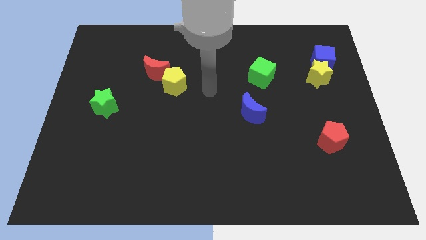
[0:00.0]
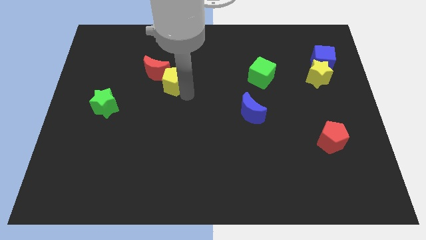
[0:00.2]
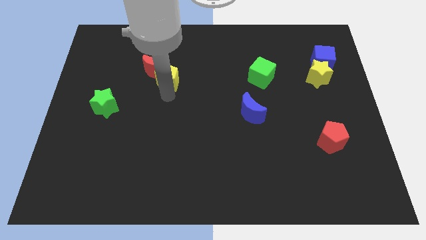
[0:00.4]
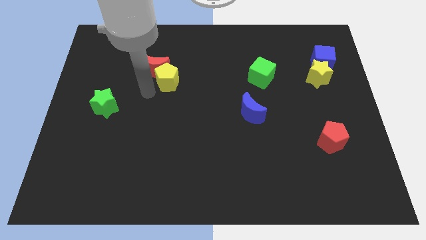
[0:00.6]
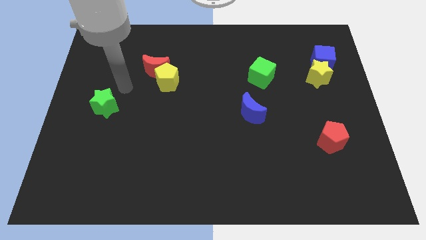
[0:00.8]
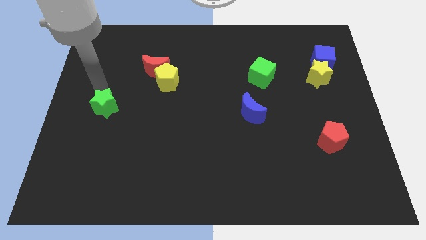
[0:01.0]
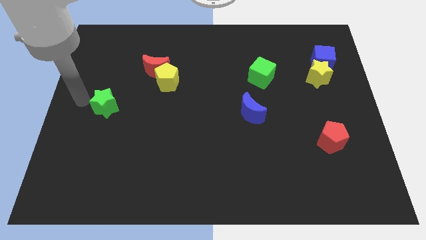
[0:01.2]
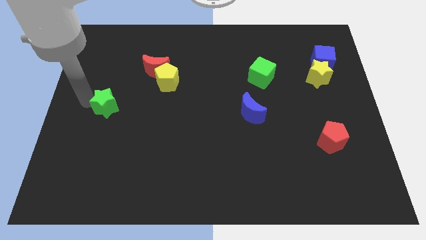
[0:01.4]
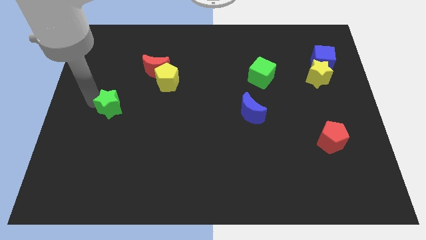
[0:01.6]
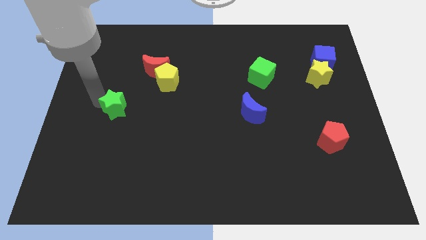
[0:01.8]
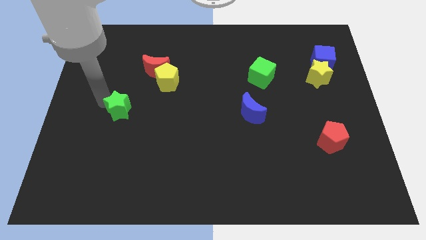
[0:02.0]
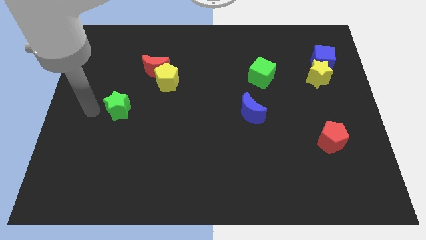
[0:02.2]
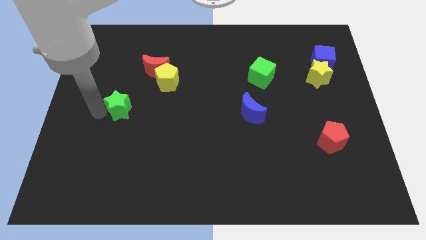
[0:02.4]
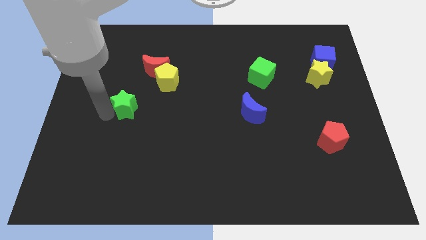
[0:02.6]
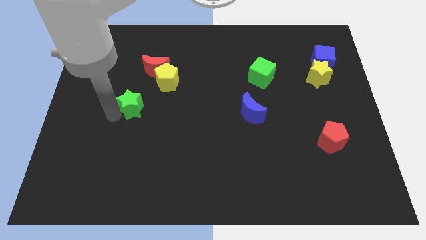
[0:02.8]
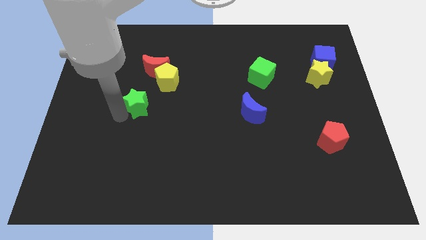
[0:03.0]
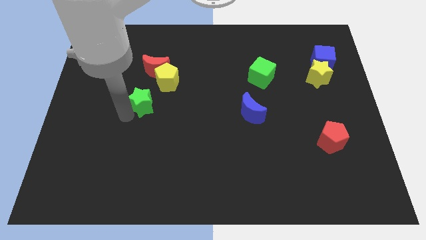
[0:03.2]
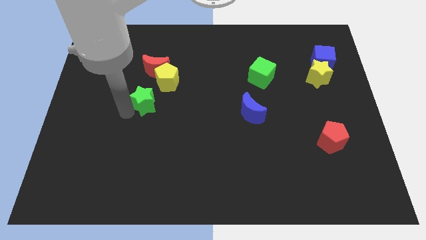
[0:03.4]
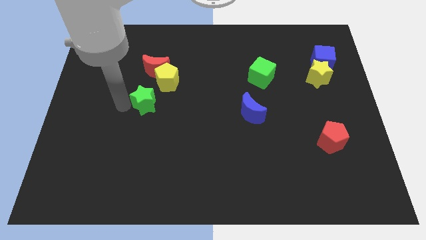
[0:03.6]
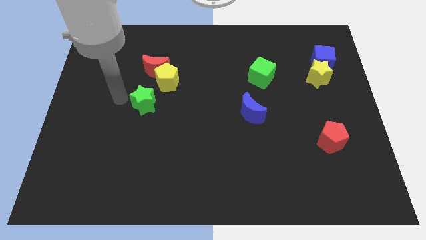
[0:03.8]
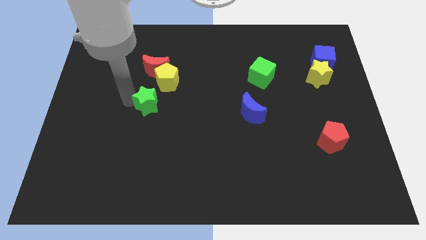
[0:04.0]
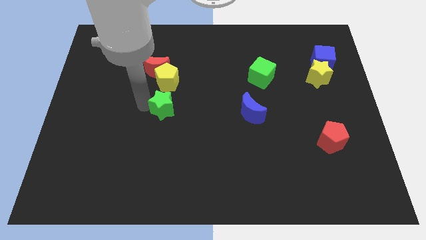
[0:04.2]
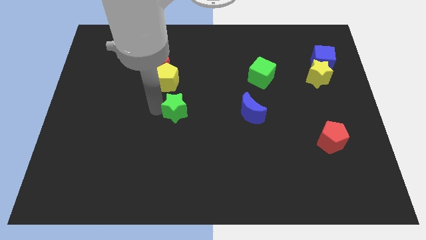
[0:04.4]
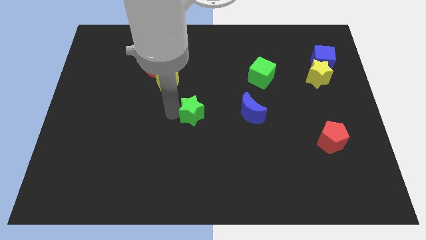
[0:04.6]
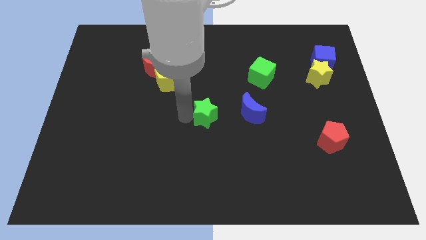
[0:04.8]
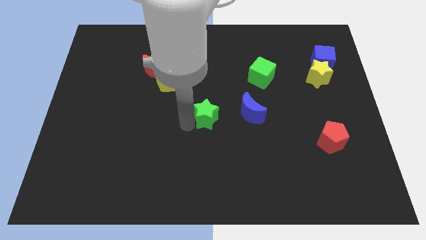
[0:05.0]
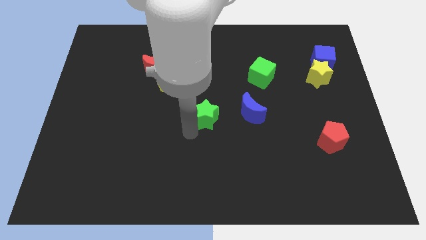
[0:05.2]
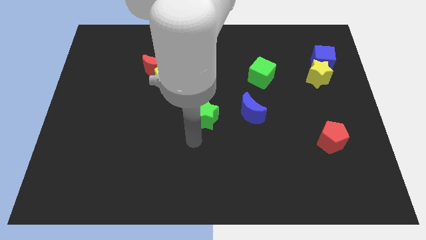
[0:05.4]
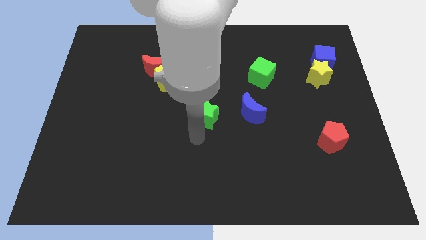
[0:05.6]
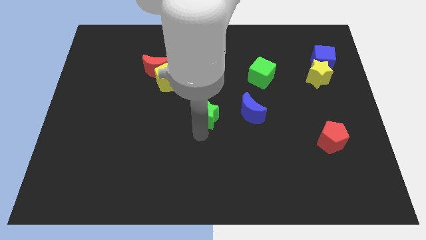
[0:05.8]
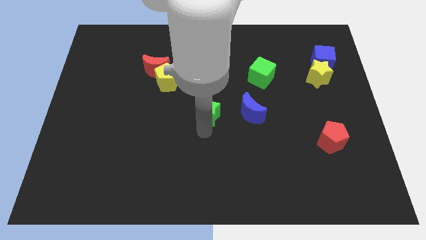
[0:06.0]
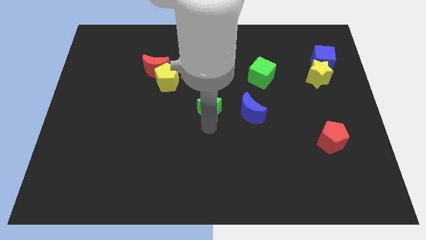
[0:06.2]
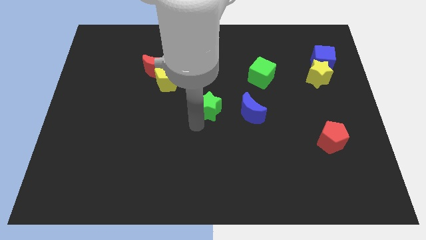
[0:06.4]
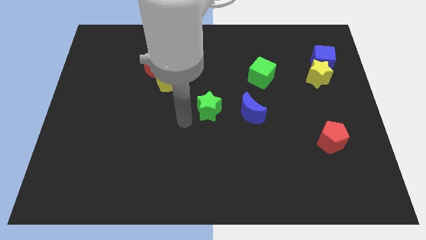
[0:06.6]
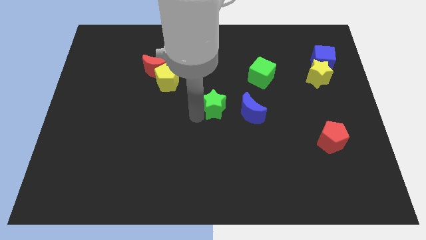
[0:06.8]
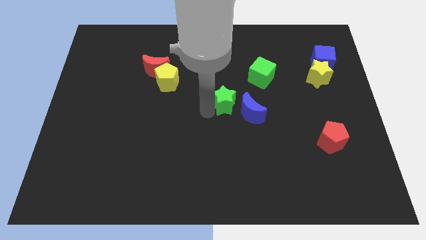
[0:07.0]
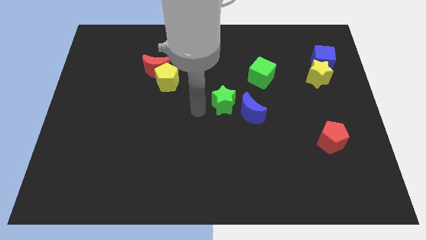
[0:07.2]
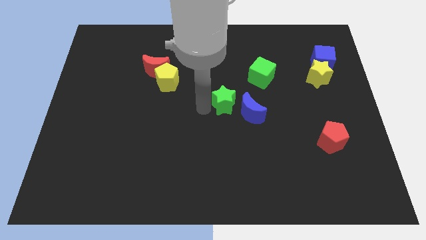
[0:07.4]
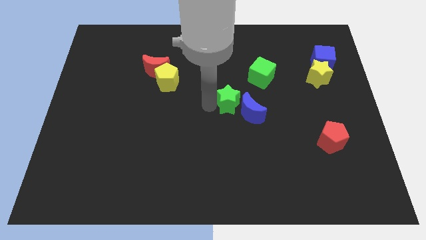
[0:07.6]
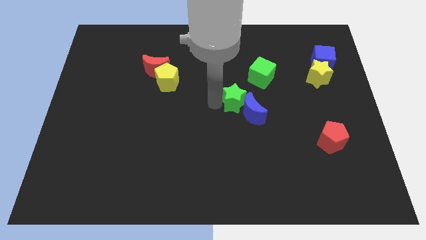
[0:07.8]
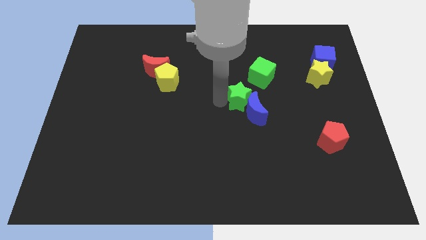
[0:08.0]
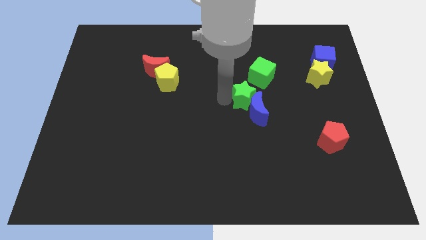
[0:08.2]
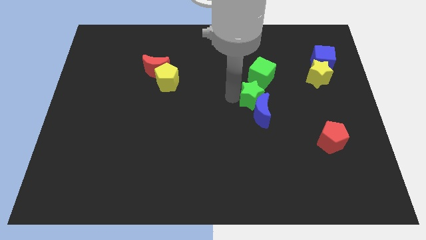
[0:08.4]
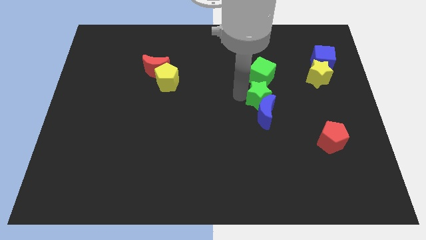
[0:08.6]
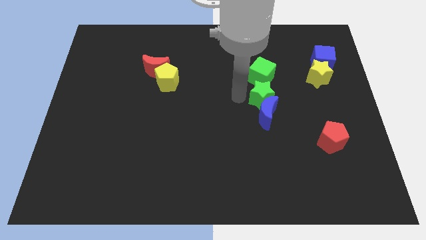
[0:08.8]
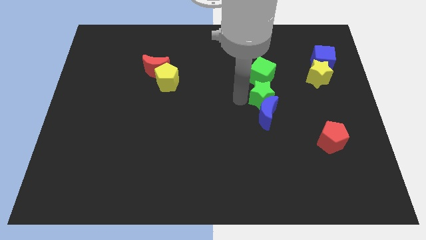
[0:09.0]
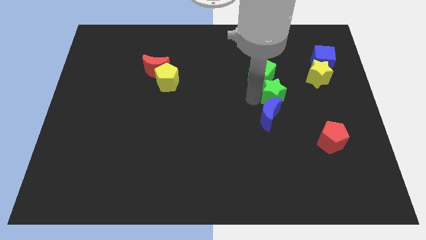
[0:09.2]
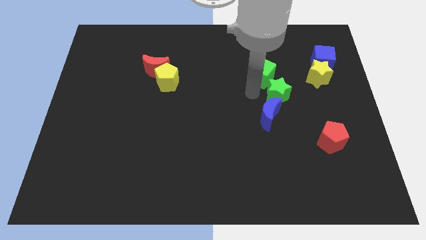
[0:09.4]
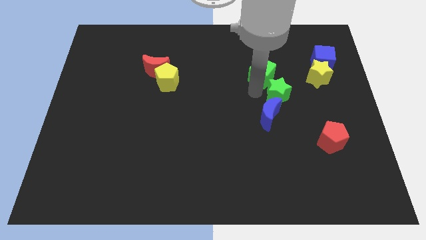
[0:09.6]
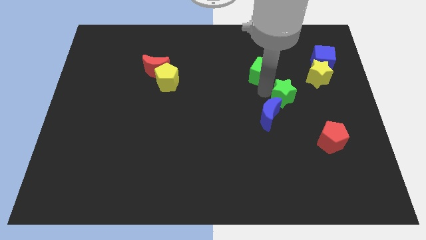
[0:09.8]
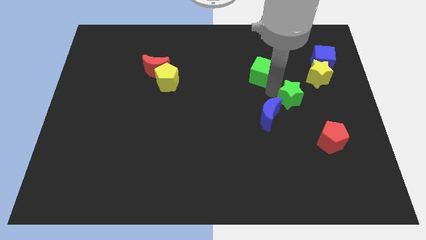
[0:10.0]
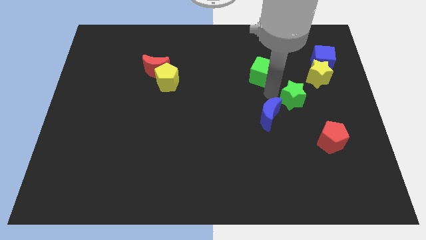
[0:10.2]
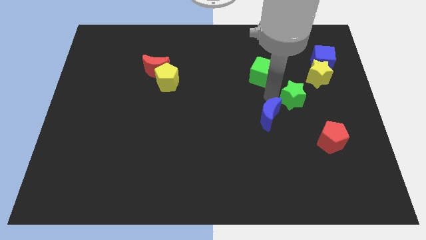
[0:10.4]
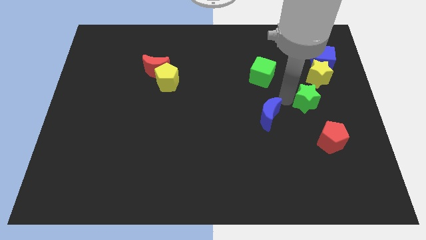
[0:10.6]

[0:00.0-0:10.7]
move the green star to the top of the red pentagon

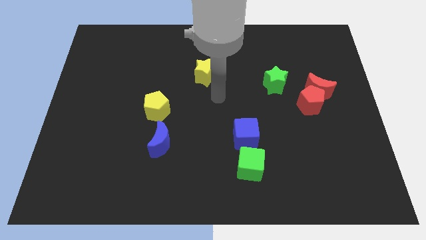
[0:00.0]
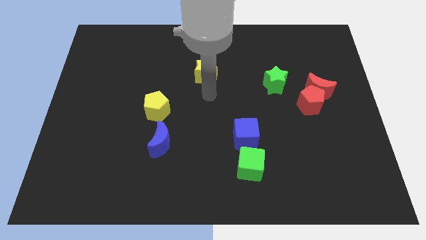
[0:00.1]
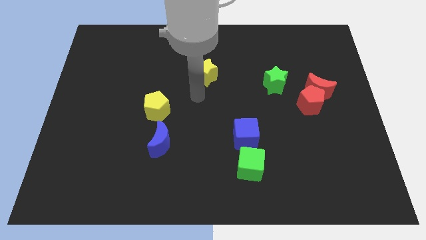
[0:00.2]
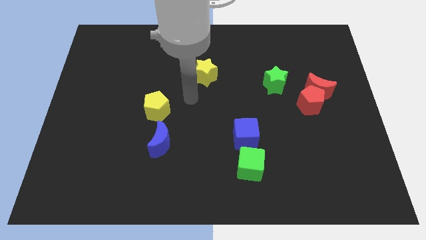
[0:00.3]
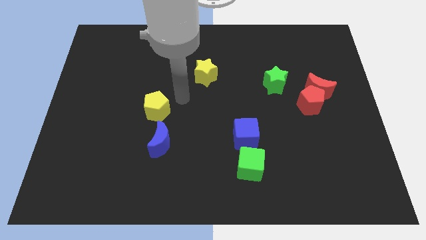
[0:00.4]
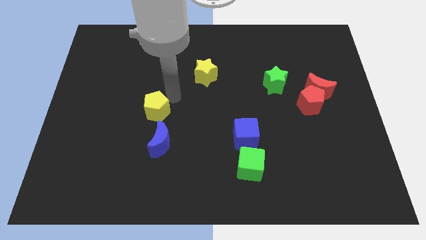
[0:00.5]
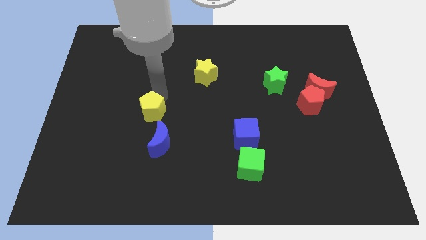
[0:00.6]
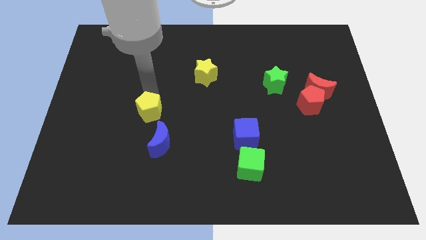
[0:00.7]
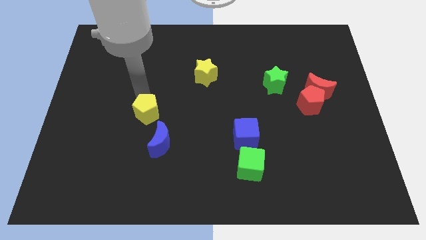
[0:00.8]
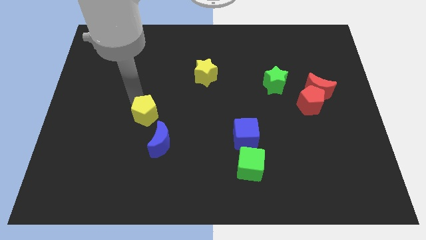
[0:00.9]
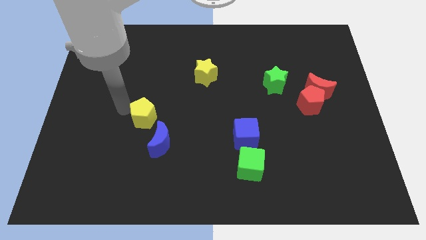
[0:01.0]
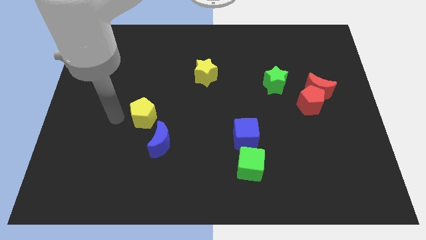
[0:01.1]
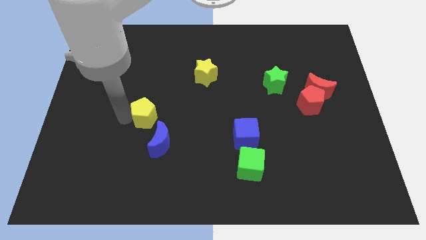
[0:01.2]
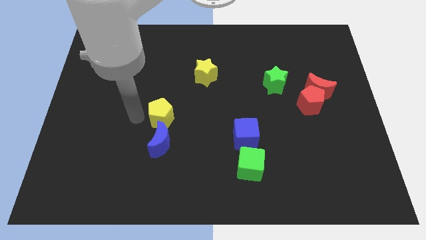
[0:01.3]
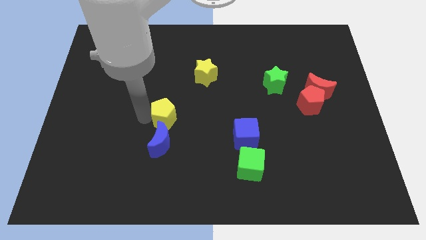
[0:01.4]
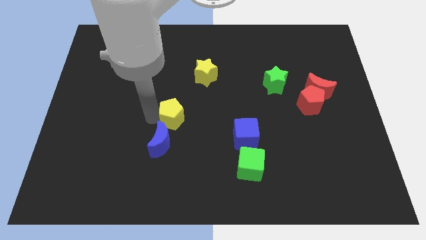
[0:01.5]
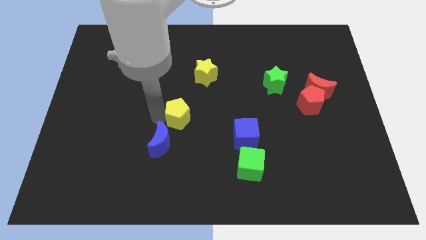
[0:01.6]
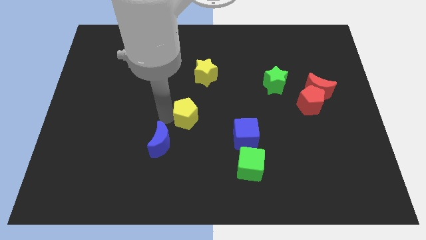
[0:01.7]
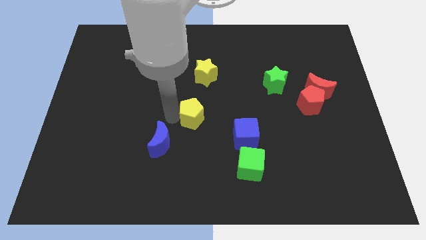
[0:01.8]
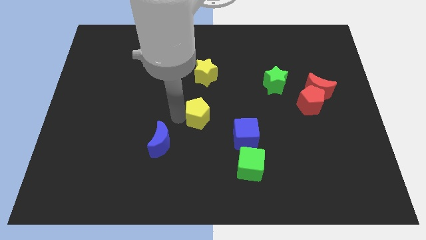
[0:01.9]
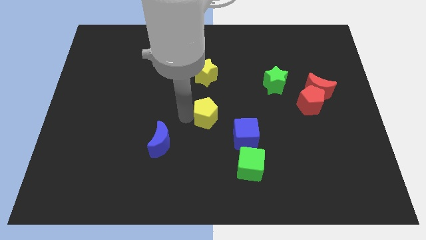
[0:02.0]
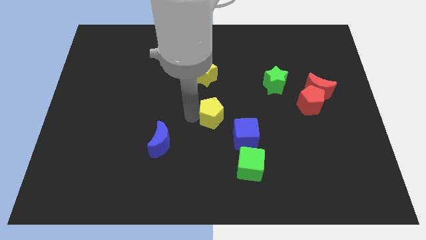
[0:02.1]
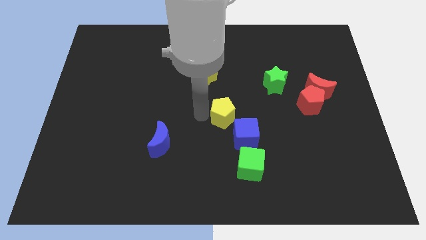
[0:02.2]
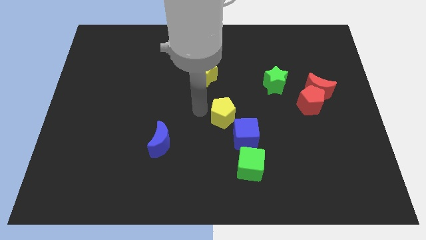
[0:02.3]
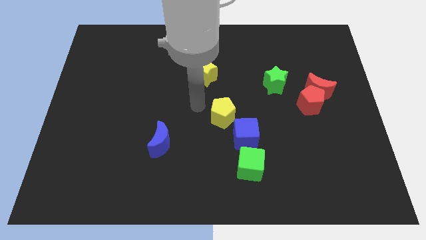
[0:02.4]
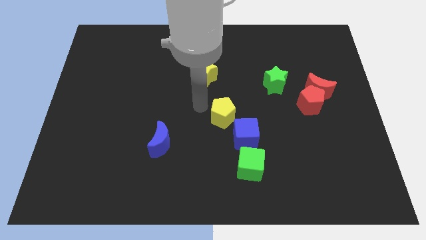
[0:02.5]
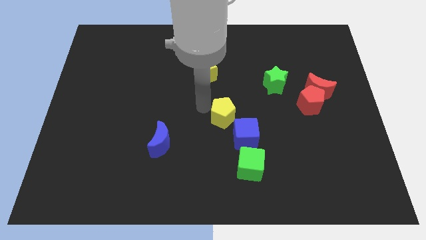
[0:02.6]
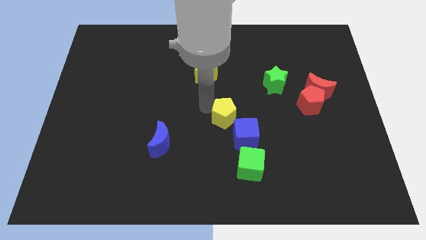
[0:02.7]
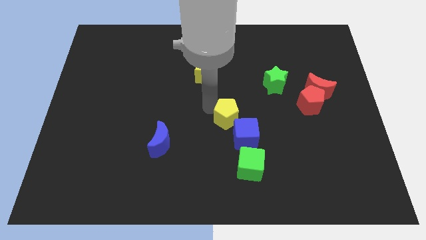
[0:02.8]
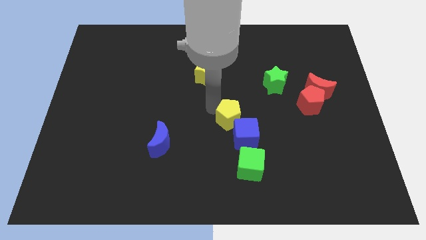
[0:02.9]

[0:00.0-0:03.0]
slide the yellow pentagon to the top side of the green cube
